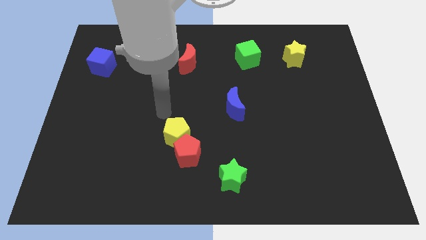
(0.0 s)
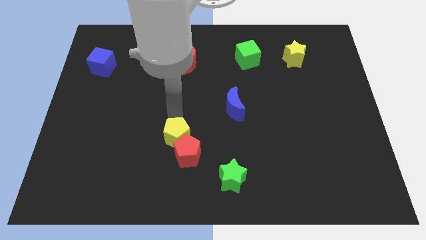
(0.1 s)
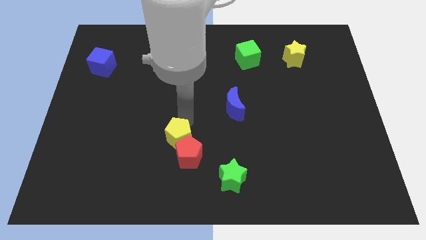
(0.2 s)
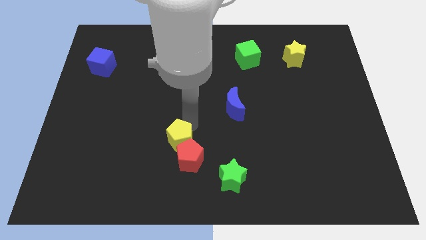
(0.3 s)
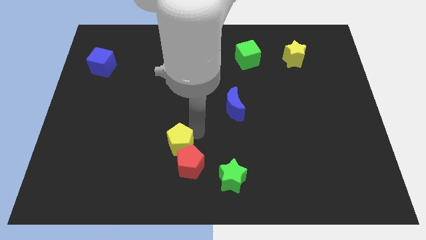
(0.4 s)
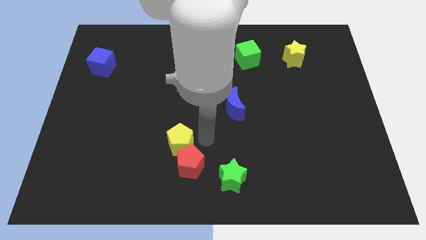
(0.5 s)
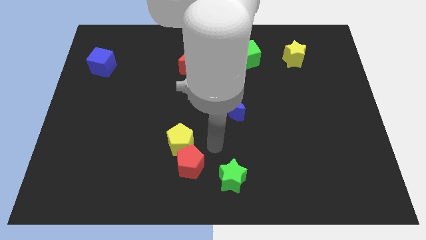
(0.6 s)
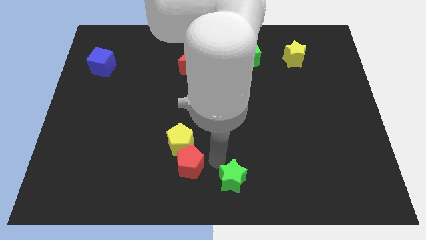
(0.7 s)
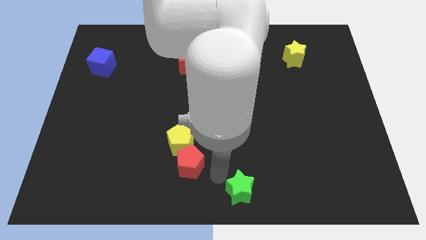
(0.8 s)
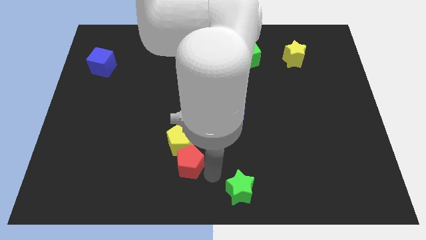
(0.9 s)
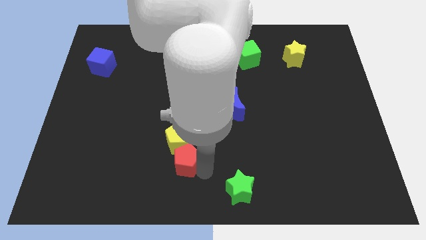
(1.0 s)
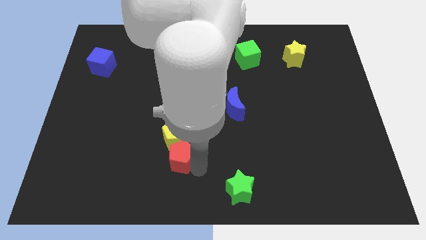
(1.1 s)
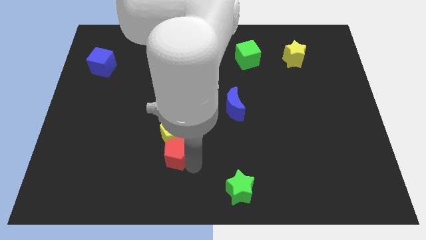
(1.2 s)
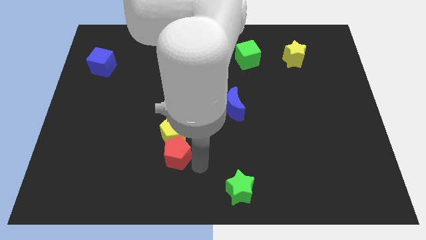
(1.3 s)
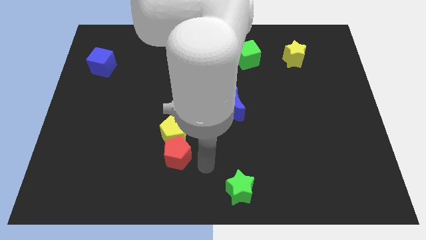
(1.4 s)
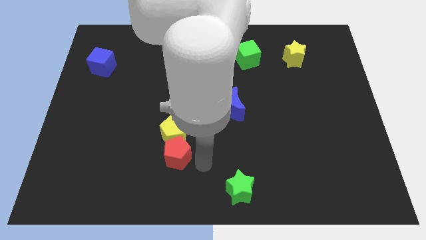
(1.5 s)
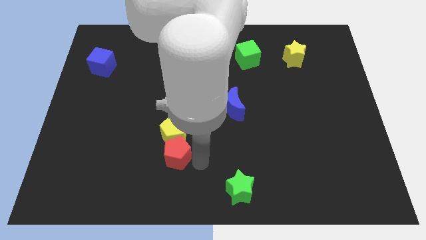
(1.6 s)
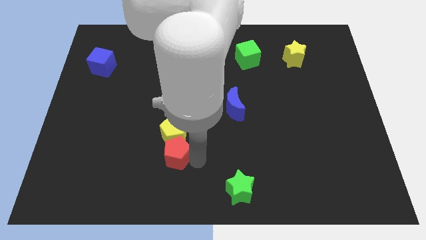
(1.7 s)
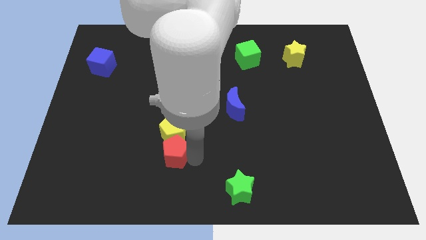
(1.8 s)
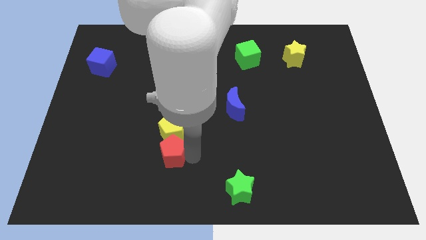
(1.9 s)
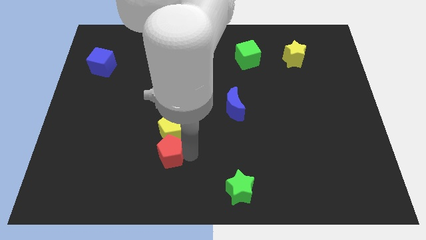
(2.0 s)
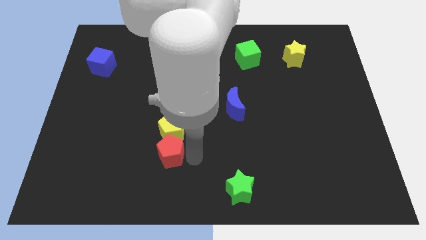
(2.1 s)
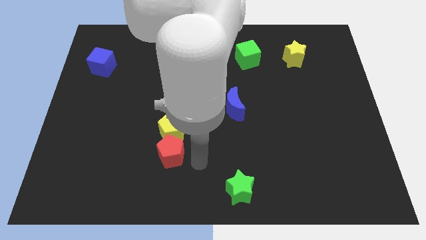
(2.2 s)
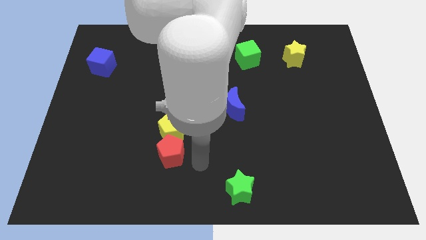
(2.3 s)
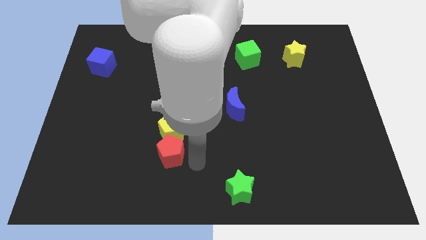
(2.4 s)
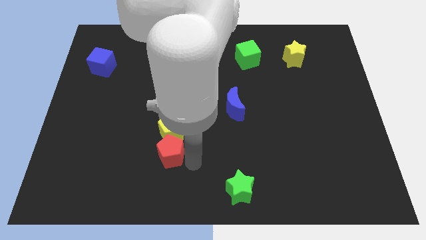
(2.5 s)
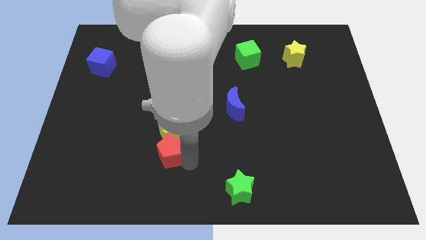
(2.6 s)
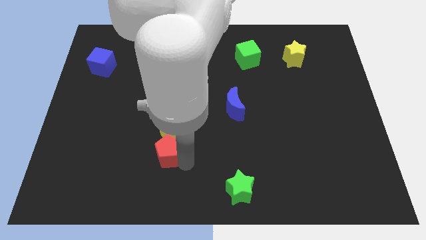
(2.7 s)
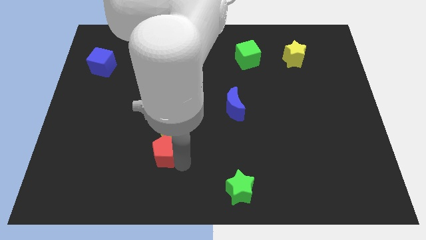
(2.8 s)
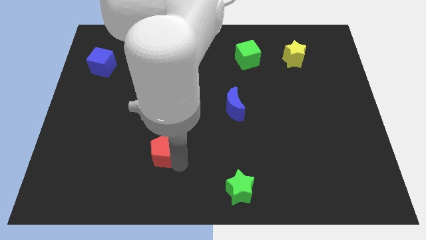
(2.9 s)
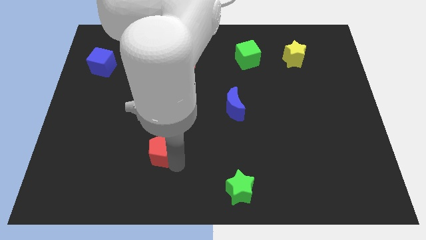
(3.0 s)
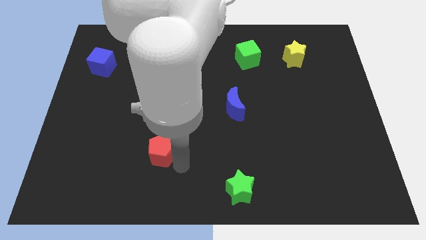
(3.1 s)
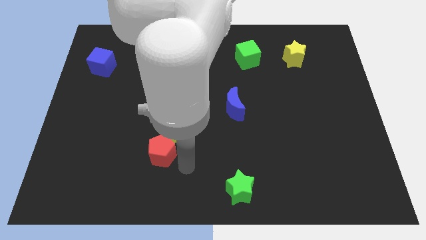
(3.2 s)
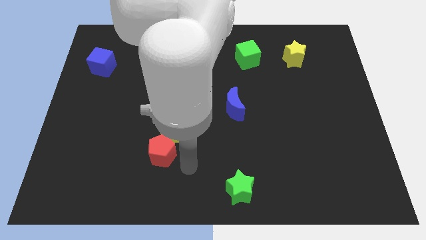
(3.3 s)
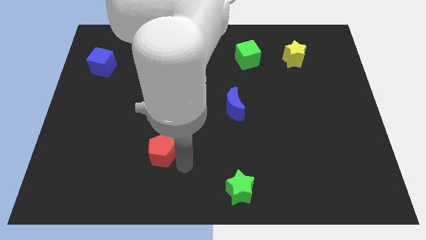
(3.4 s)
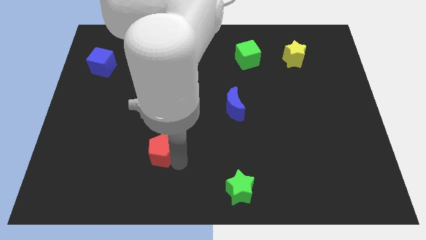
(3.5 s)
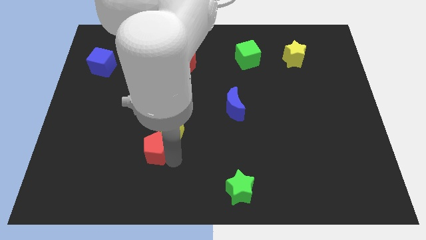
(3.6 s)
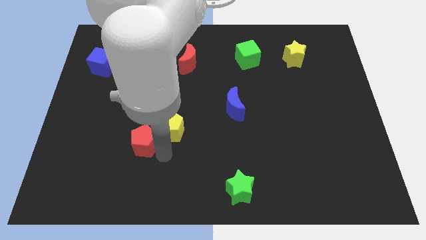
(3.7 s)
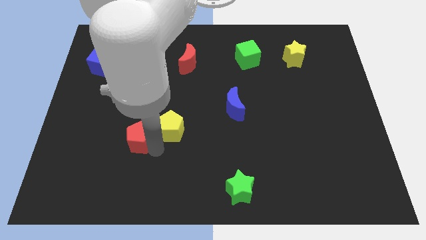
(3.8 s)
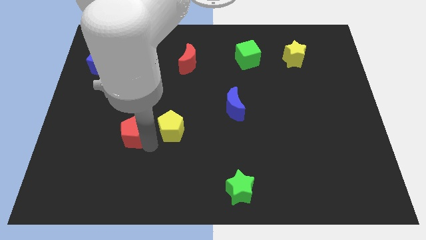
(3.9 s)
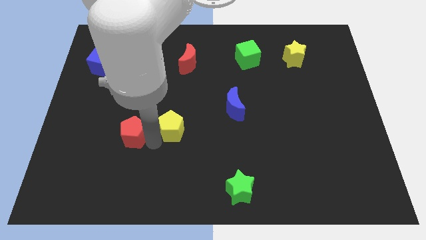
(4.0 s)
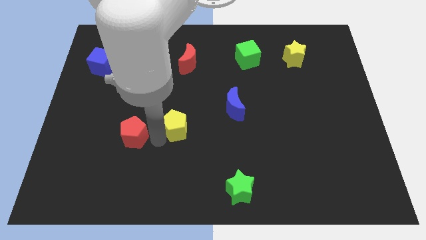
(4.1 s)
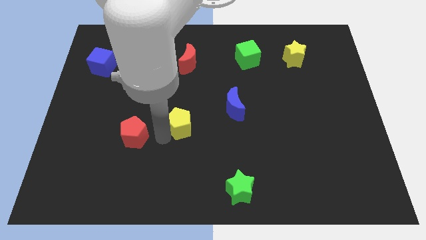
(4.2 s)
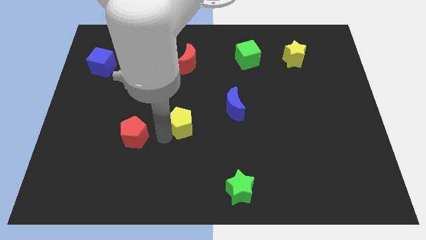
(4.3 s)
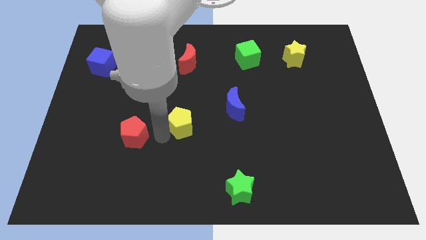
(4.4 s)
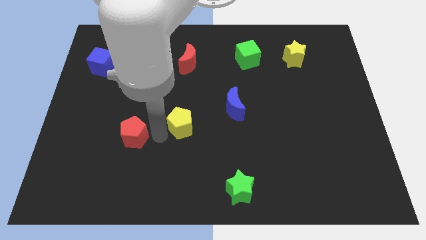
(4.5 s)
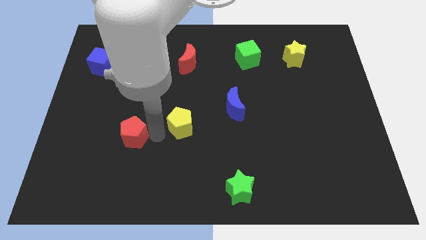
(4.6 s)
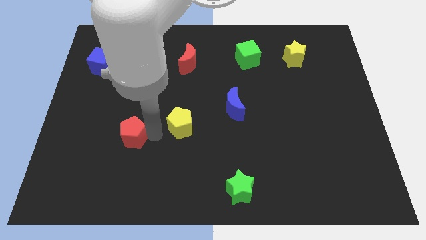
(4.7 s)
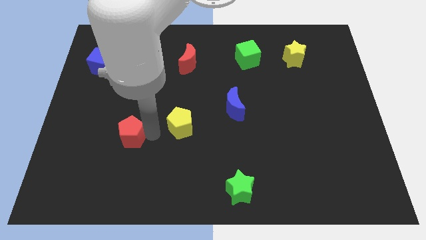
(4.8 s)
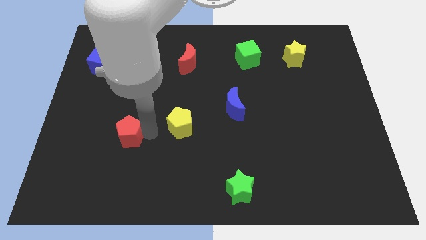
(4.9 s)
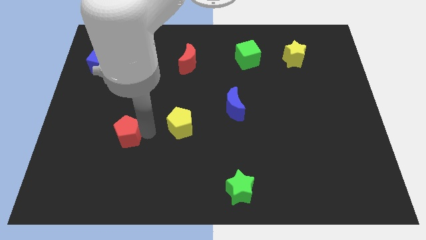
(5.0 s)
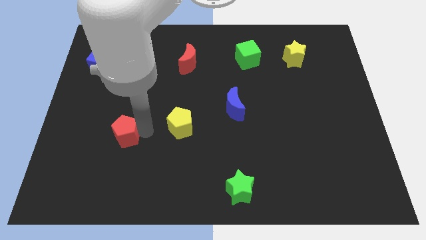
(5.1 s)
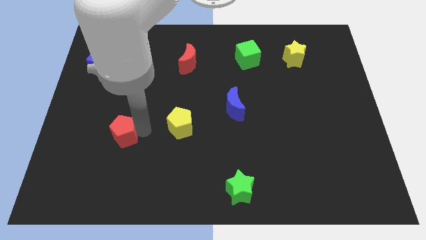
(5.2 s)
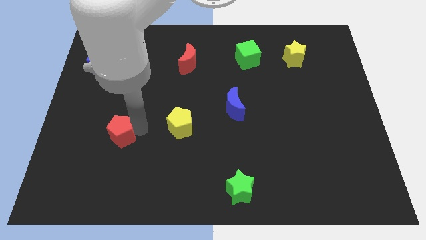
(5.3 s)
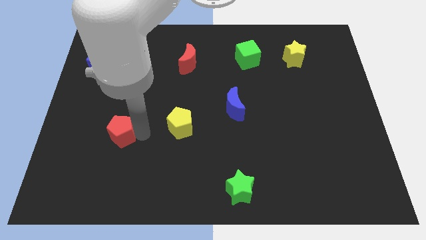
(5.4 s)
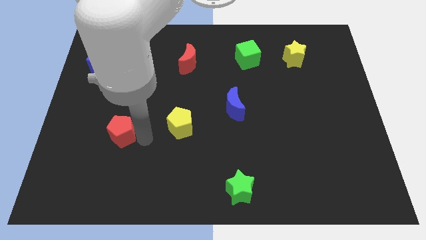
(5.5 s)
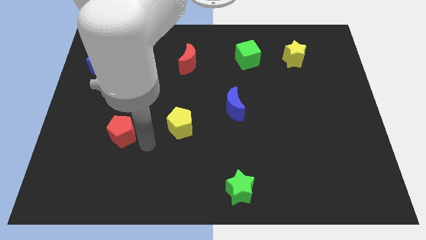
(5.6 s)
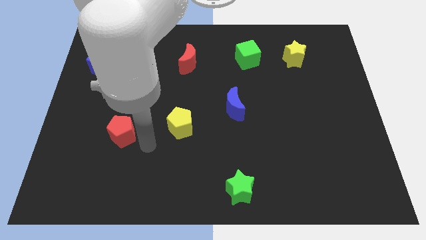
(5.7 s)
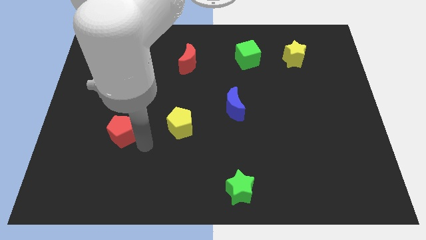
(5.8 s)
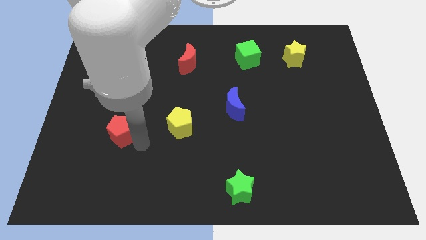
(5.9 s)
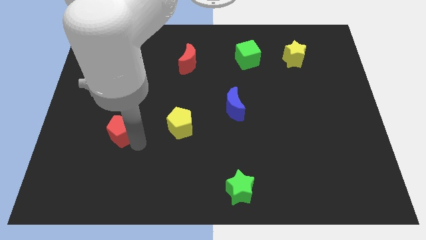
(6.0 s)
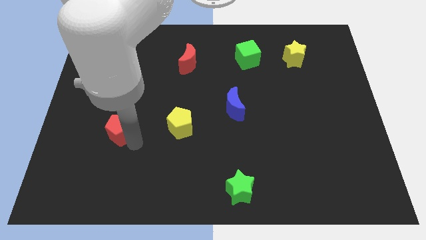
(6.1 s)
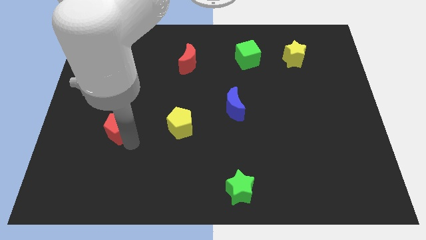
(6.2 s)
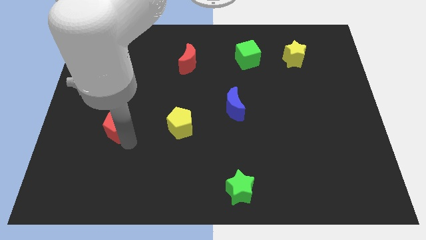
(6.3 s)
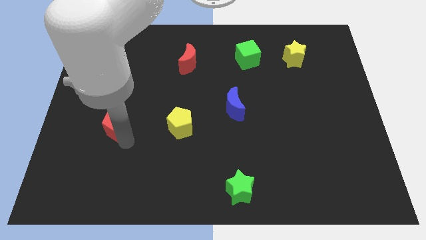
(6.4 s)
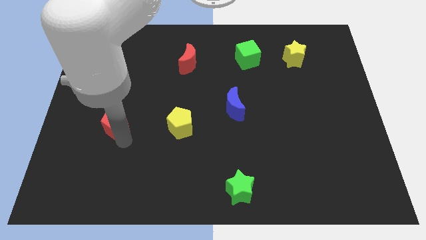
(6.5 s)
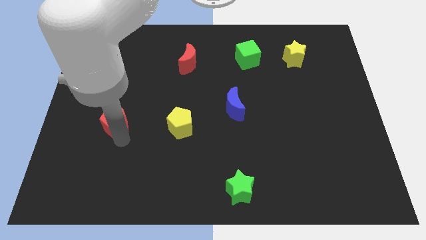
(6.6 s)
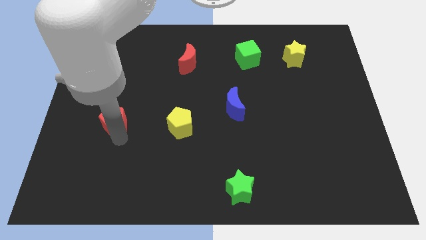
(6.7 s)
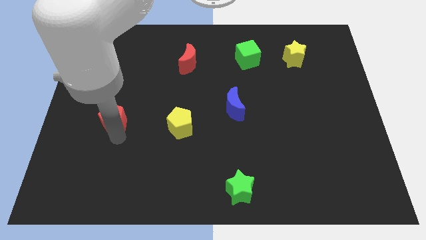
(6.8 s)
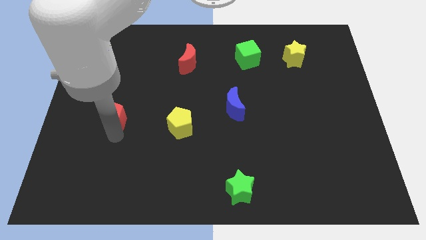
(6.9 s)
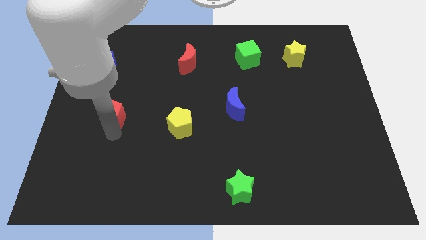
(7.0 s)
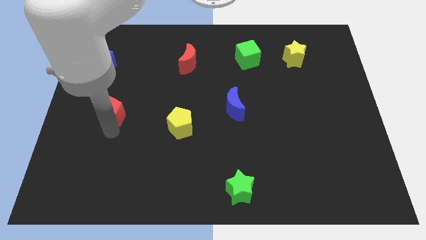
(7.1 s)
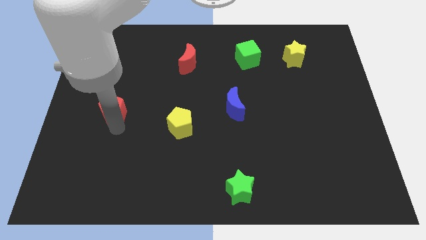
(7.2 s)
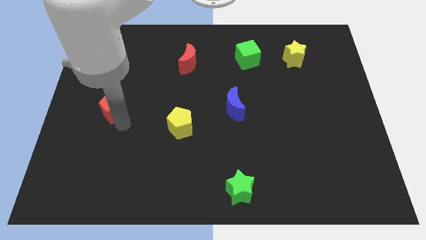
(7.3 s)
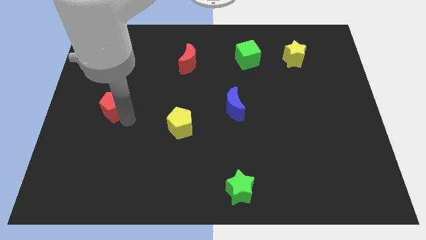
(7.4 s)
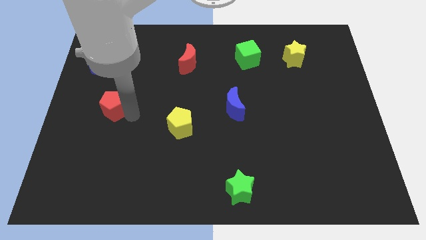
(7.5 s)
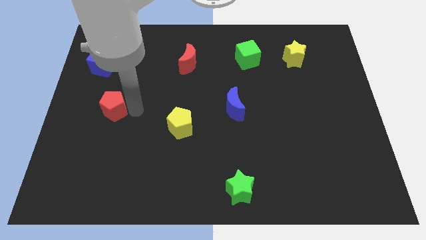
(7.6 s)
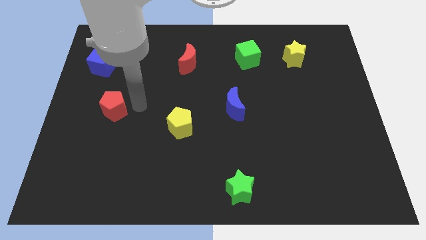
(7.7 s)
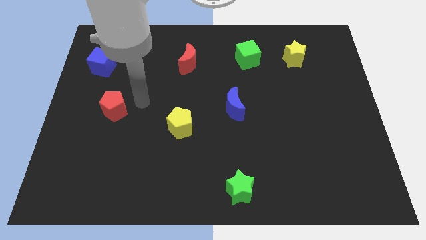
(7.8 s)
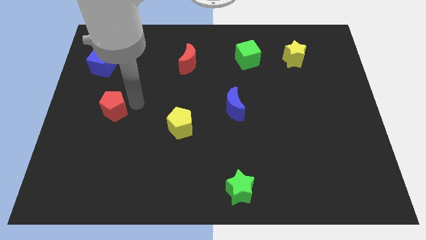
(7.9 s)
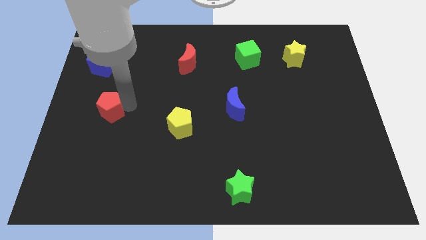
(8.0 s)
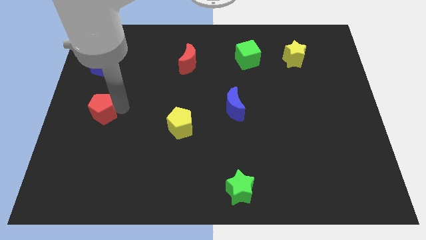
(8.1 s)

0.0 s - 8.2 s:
put the red pentagon to the left side
